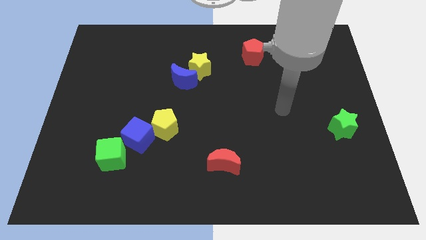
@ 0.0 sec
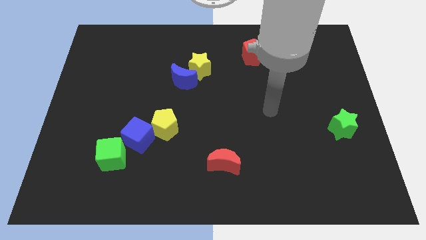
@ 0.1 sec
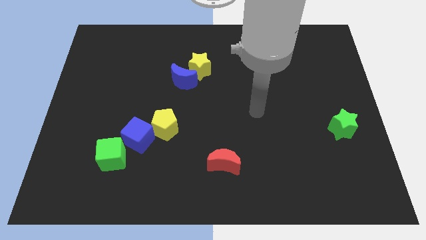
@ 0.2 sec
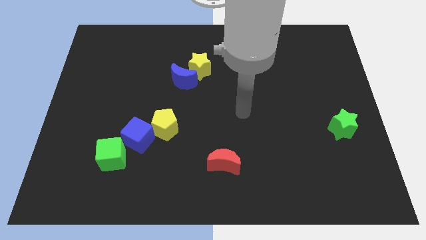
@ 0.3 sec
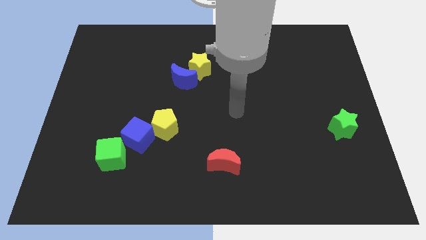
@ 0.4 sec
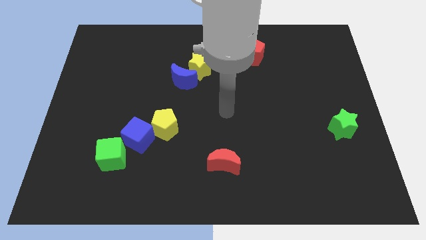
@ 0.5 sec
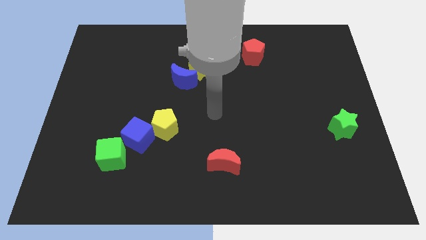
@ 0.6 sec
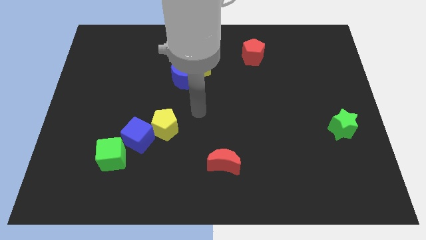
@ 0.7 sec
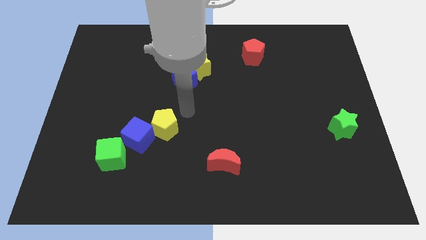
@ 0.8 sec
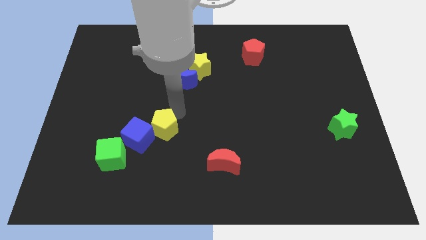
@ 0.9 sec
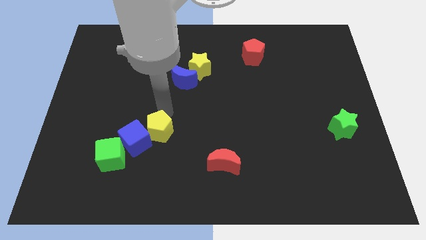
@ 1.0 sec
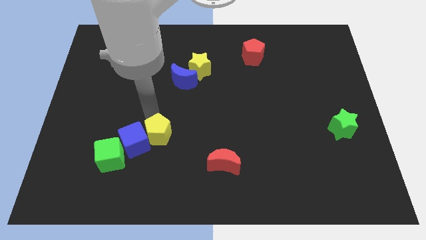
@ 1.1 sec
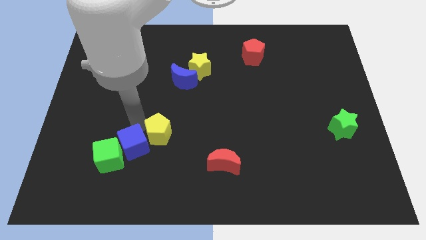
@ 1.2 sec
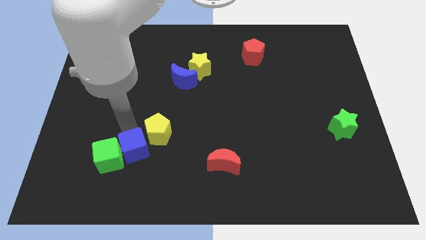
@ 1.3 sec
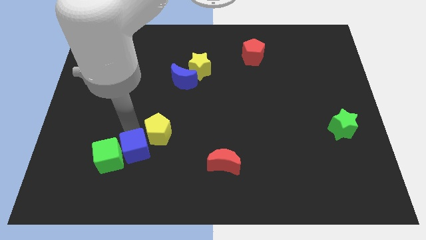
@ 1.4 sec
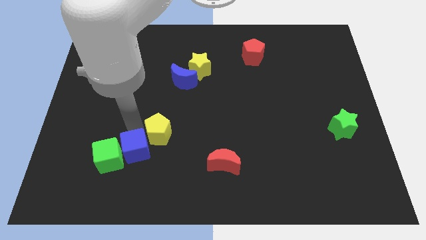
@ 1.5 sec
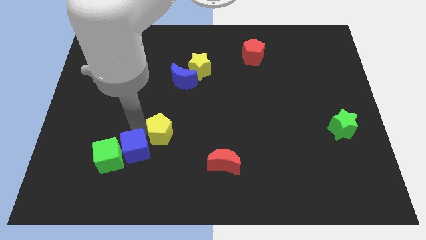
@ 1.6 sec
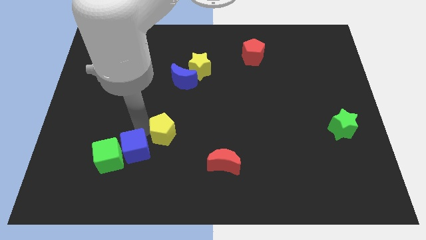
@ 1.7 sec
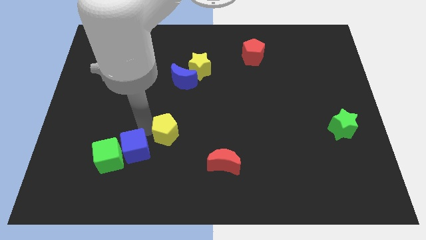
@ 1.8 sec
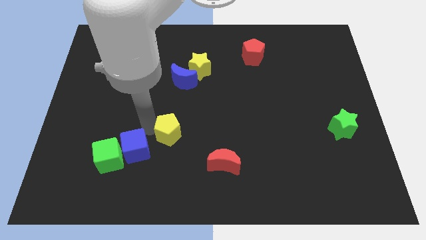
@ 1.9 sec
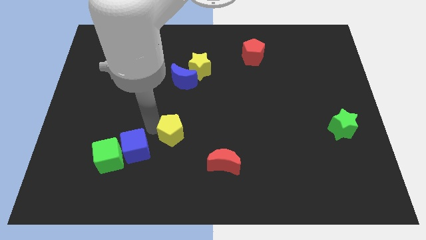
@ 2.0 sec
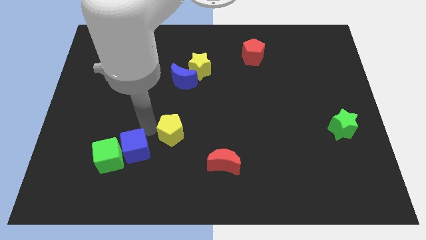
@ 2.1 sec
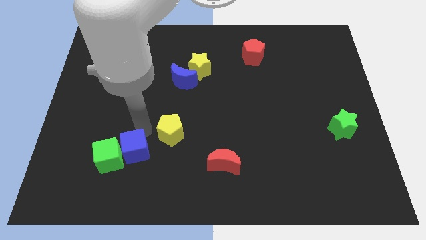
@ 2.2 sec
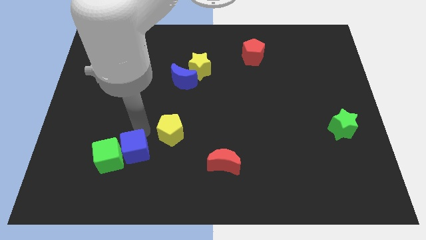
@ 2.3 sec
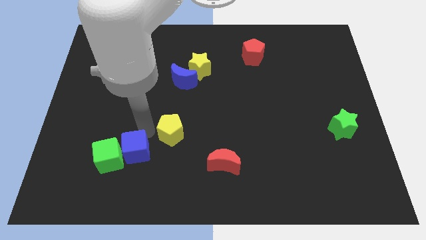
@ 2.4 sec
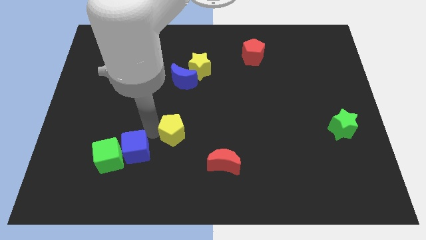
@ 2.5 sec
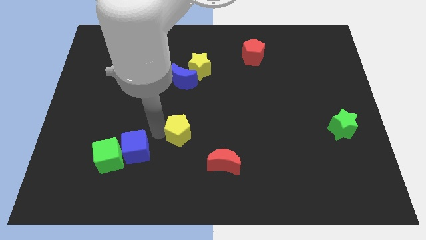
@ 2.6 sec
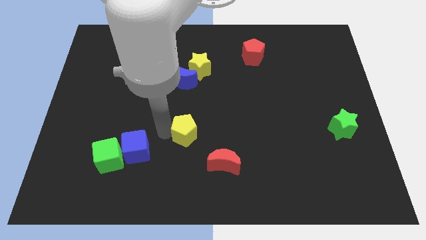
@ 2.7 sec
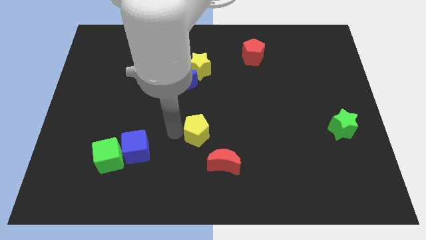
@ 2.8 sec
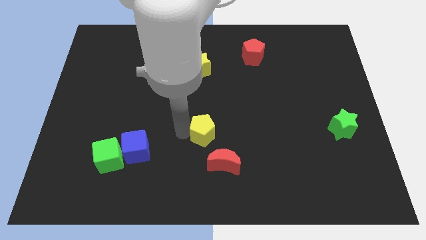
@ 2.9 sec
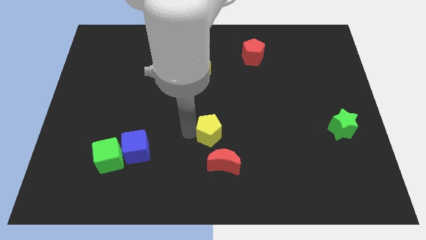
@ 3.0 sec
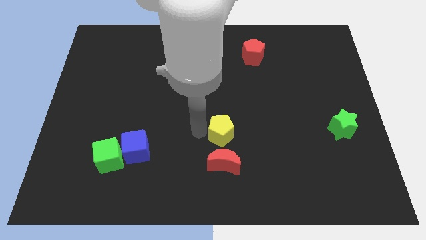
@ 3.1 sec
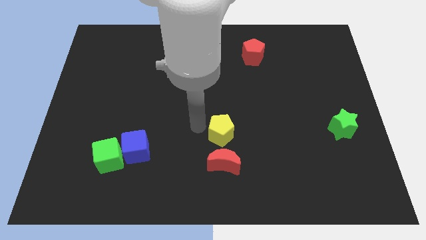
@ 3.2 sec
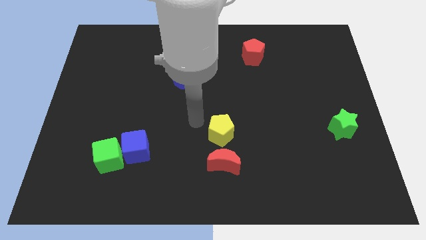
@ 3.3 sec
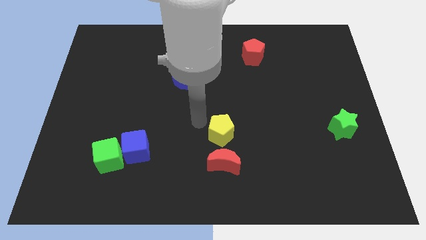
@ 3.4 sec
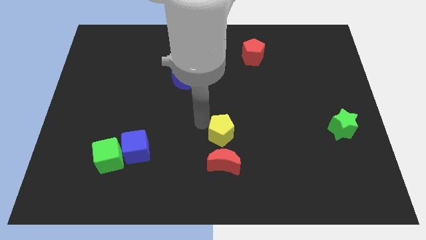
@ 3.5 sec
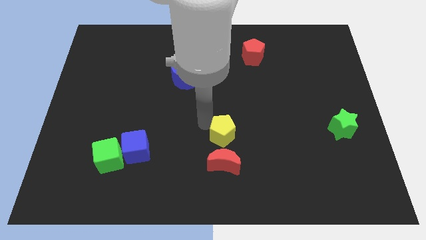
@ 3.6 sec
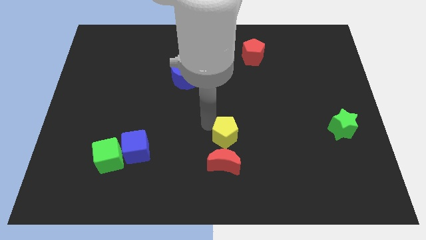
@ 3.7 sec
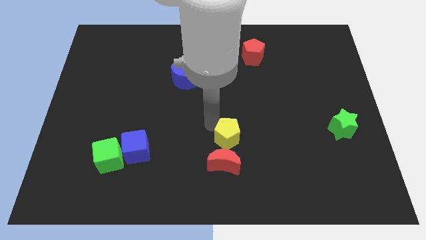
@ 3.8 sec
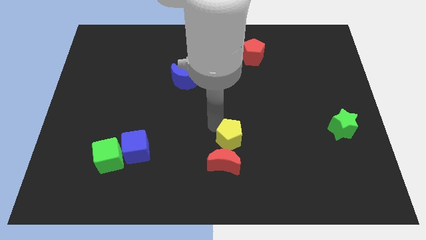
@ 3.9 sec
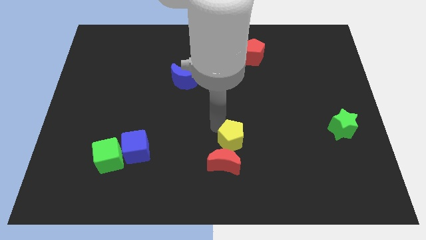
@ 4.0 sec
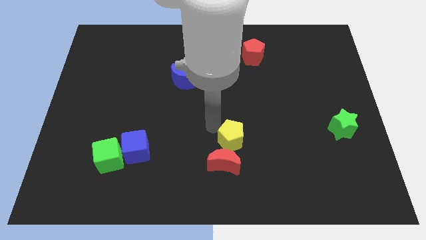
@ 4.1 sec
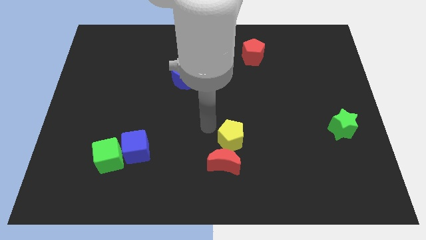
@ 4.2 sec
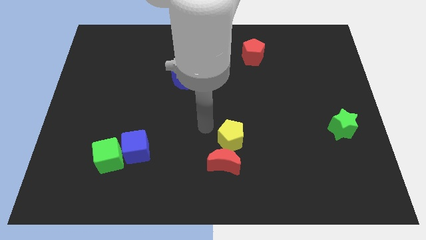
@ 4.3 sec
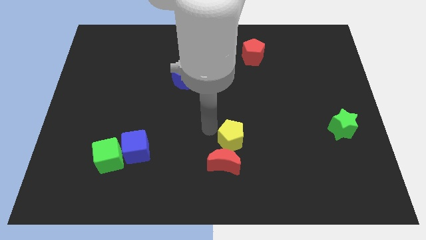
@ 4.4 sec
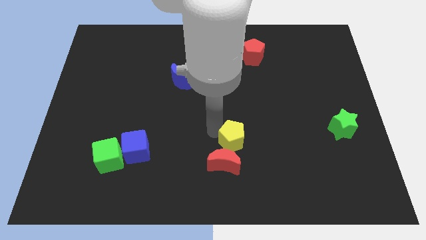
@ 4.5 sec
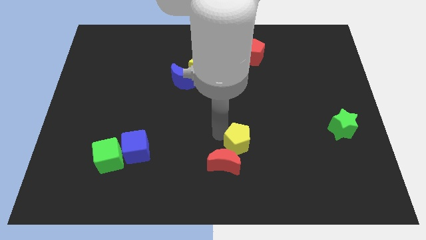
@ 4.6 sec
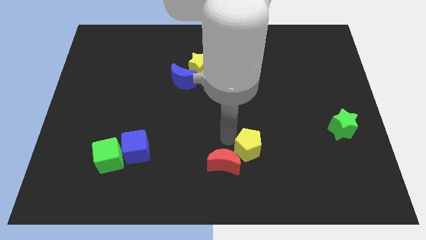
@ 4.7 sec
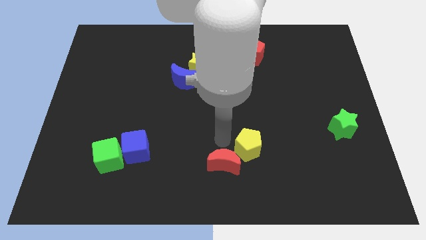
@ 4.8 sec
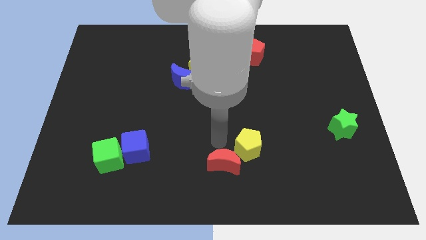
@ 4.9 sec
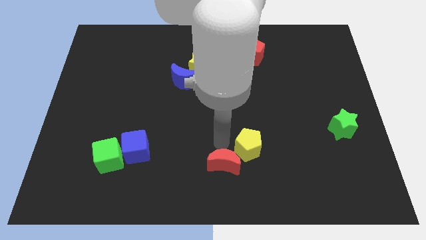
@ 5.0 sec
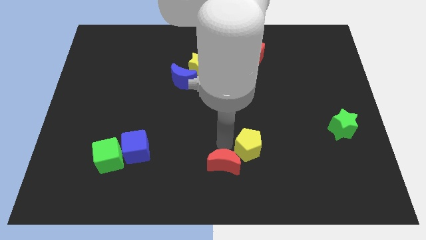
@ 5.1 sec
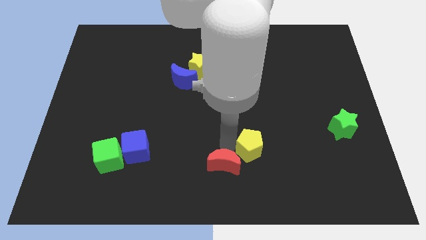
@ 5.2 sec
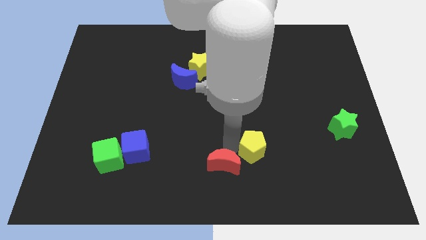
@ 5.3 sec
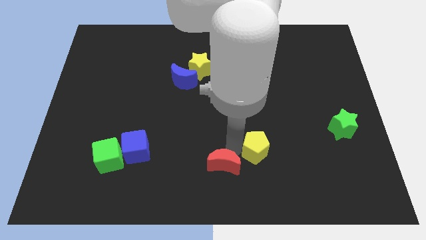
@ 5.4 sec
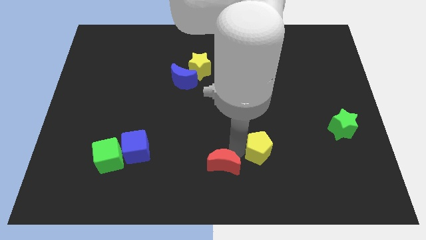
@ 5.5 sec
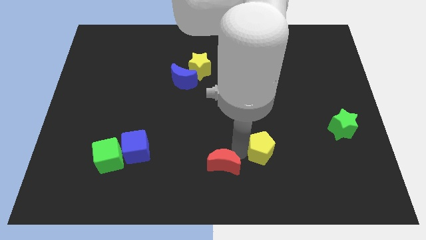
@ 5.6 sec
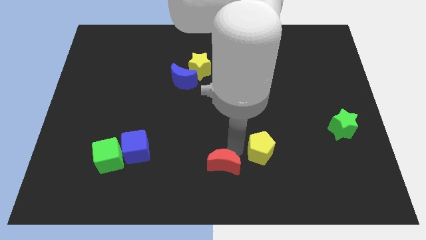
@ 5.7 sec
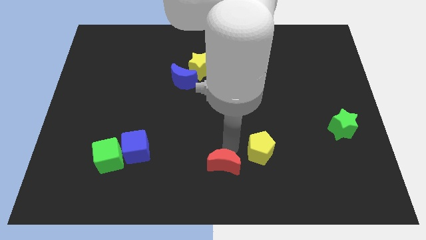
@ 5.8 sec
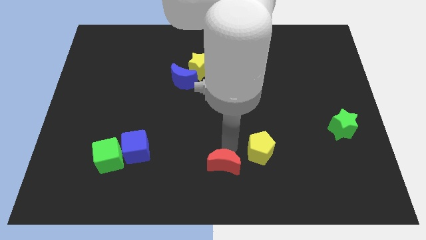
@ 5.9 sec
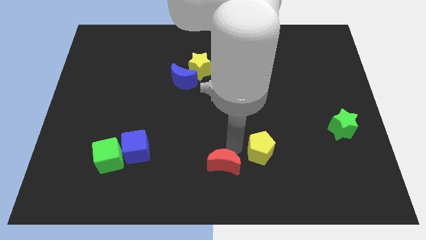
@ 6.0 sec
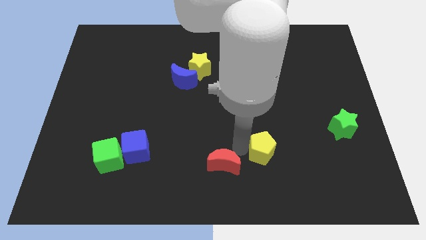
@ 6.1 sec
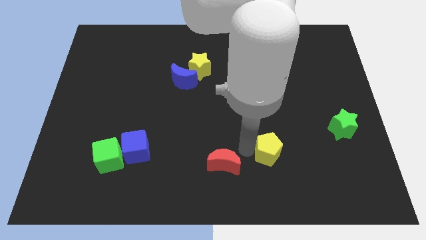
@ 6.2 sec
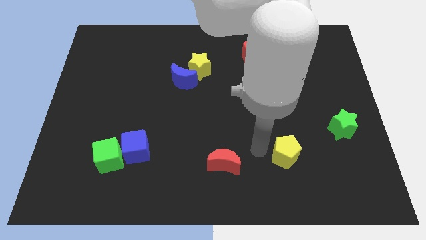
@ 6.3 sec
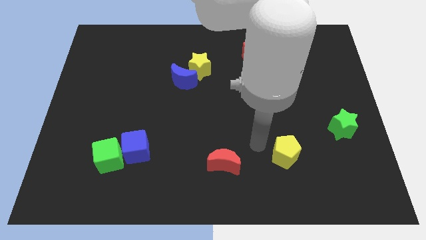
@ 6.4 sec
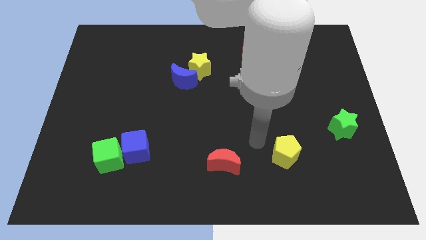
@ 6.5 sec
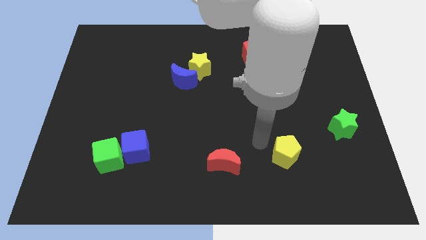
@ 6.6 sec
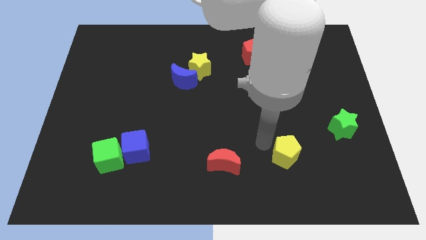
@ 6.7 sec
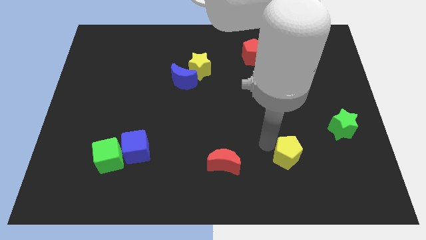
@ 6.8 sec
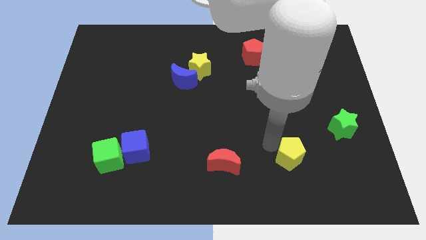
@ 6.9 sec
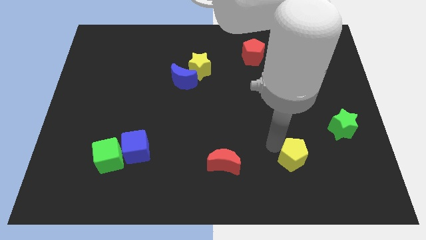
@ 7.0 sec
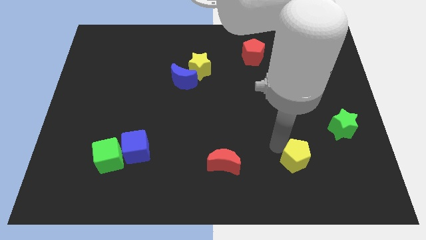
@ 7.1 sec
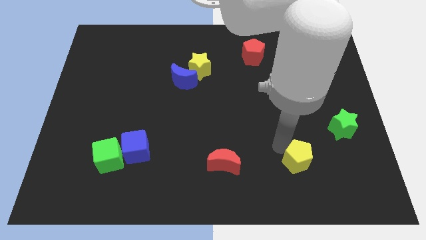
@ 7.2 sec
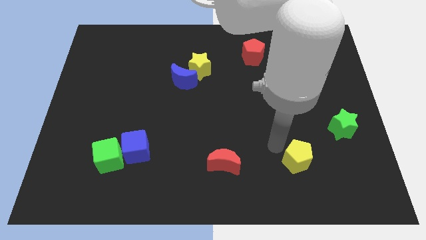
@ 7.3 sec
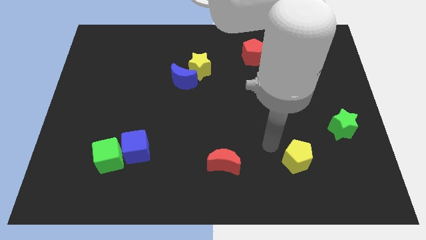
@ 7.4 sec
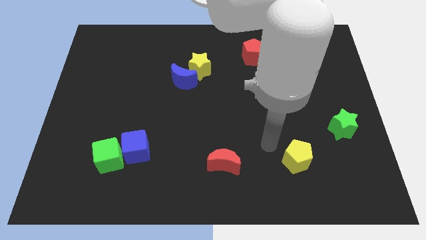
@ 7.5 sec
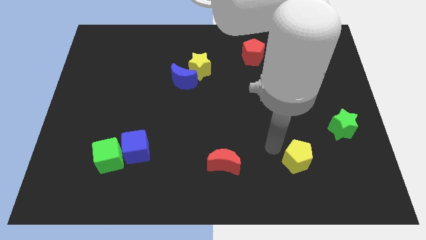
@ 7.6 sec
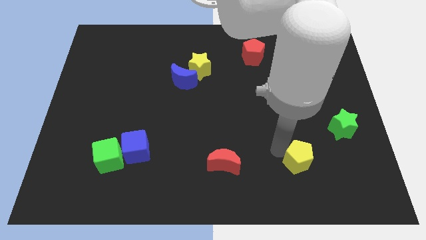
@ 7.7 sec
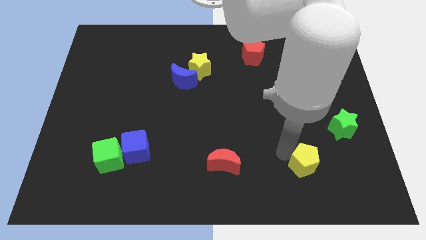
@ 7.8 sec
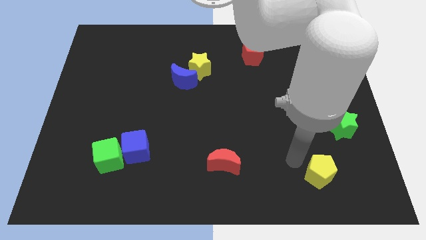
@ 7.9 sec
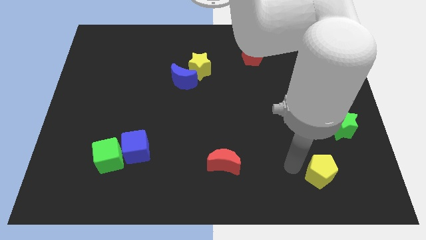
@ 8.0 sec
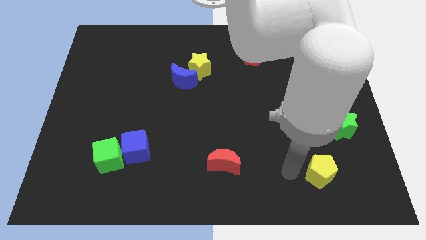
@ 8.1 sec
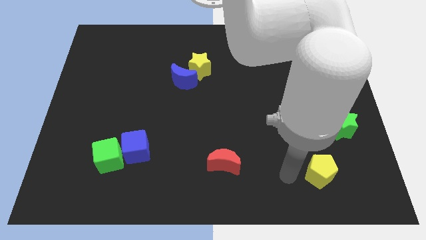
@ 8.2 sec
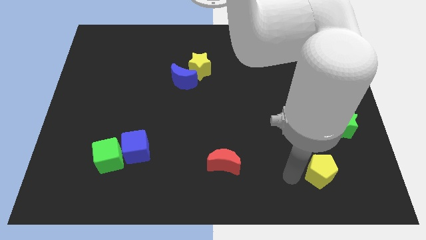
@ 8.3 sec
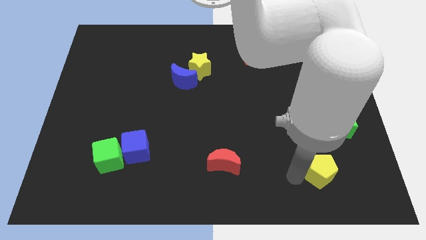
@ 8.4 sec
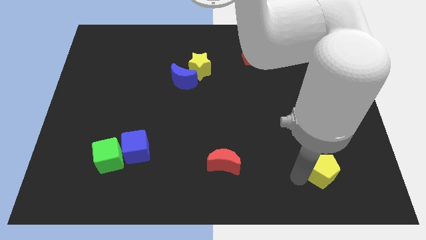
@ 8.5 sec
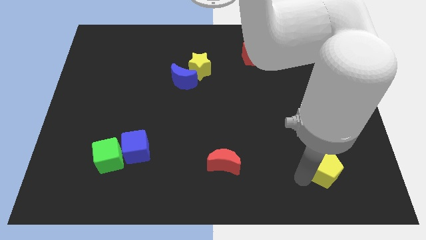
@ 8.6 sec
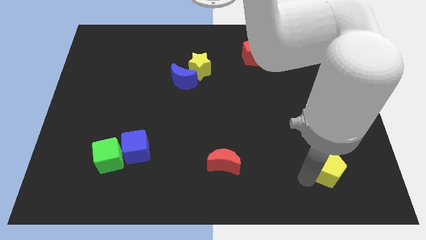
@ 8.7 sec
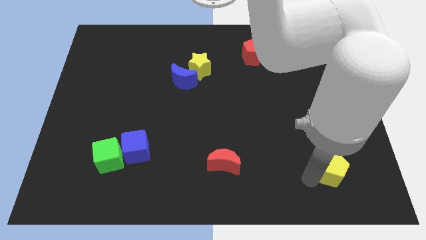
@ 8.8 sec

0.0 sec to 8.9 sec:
move the yellow pentagon to the bottom of the green star
